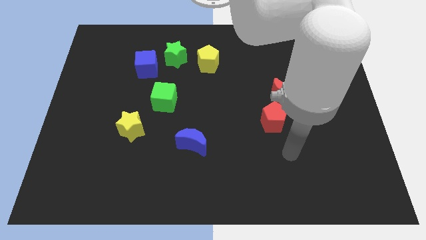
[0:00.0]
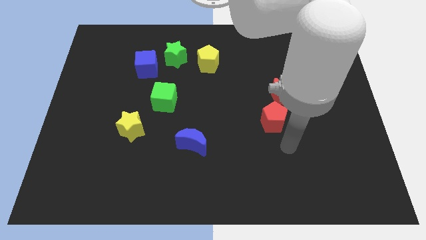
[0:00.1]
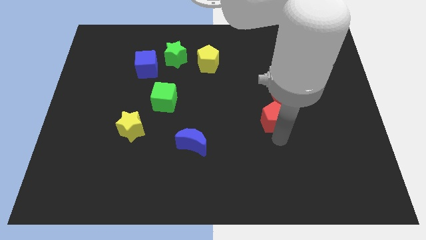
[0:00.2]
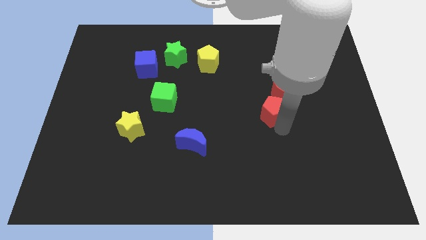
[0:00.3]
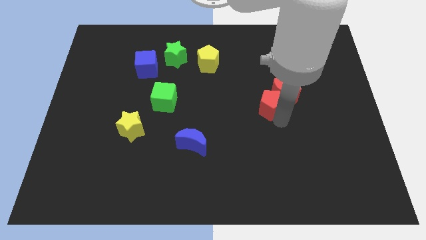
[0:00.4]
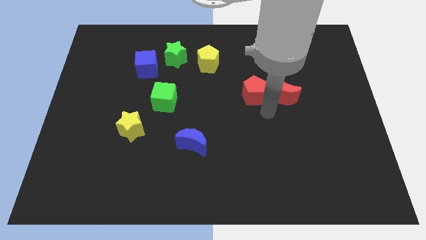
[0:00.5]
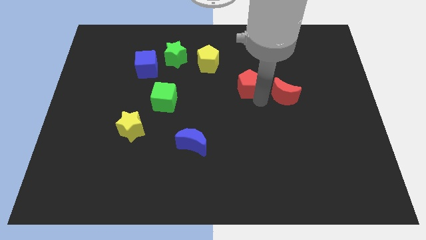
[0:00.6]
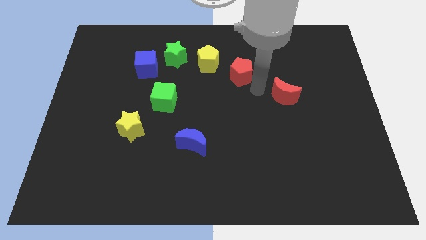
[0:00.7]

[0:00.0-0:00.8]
move the red moon away from the red pentagon

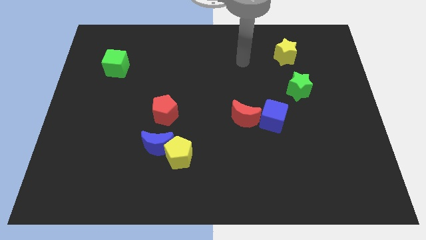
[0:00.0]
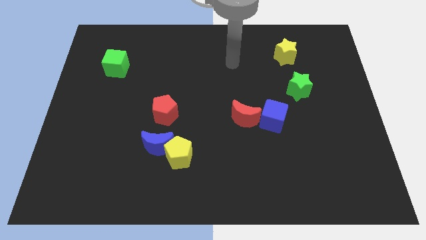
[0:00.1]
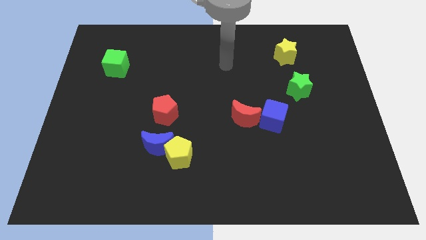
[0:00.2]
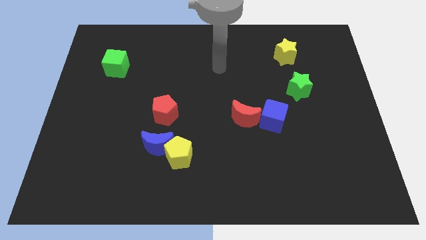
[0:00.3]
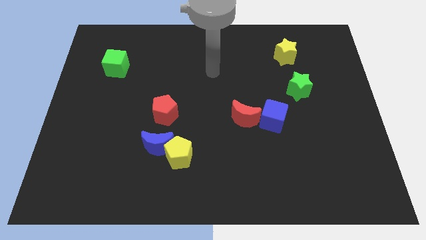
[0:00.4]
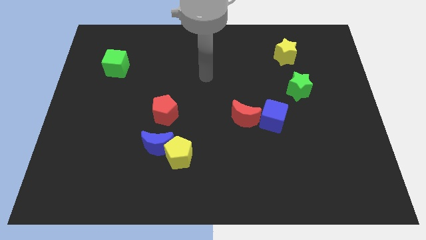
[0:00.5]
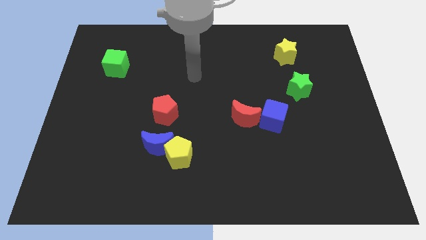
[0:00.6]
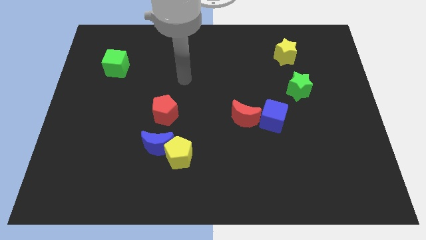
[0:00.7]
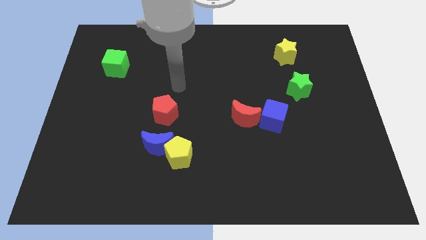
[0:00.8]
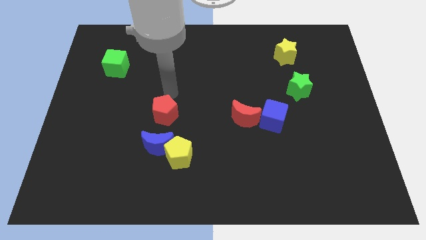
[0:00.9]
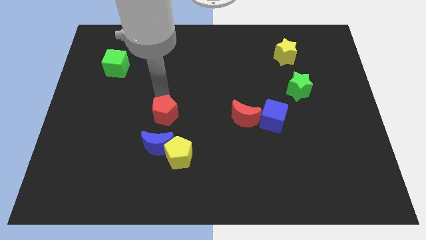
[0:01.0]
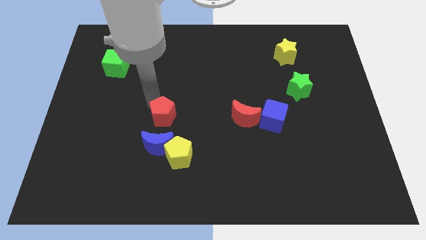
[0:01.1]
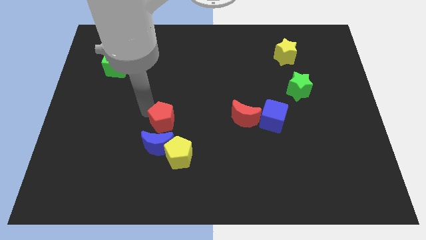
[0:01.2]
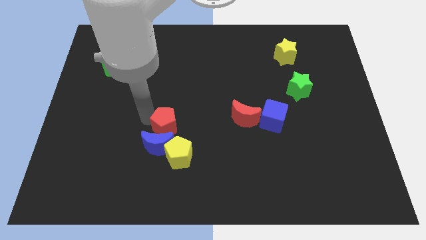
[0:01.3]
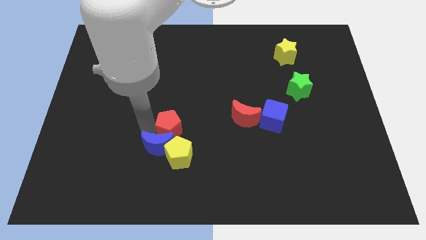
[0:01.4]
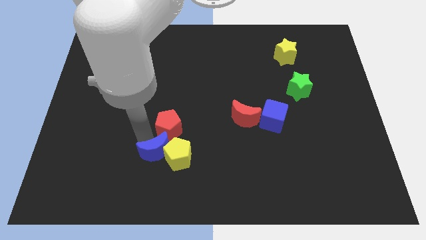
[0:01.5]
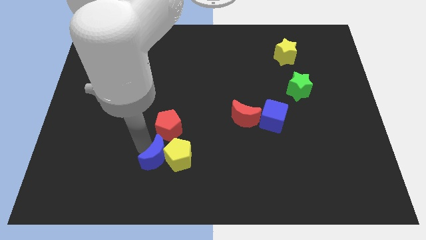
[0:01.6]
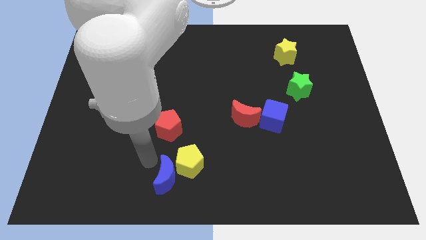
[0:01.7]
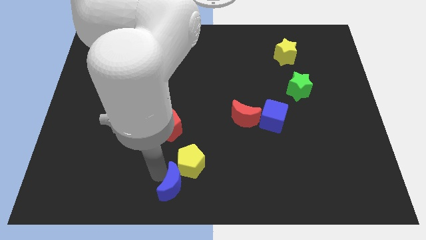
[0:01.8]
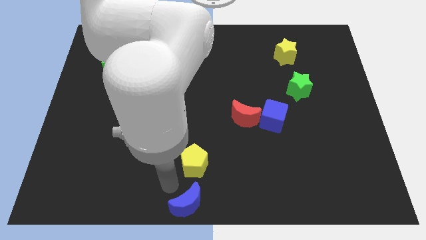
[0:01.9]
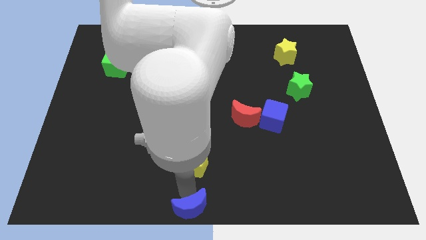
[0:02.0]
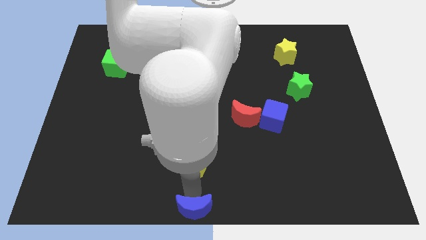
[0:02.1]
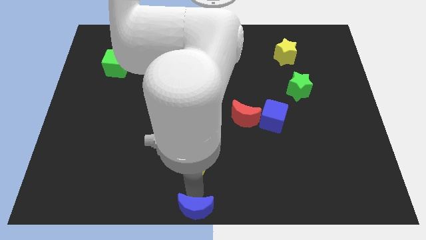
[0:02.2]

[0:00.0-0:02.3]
pull the yellow pentagon apart from the blue moon

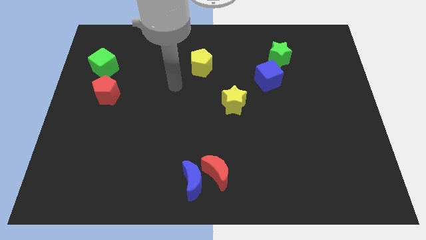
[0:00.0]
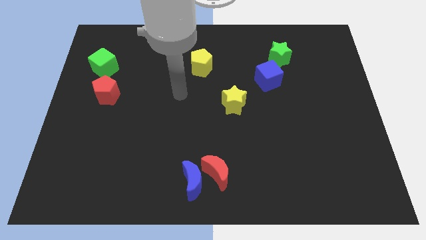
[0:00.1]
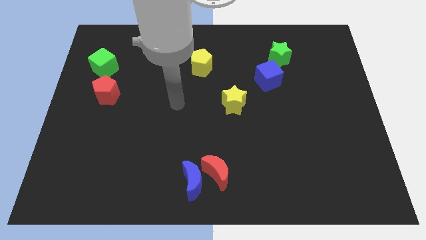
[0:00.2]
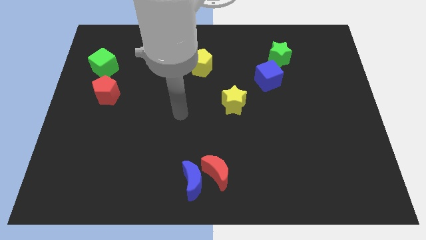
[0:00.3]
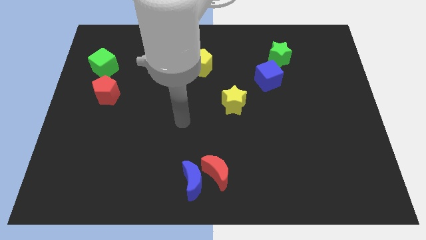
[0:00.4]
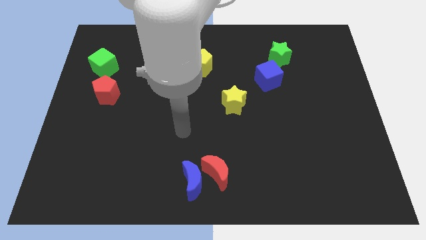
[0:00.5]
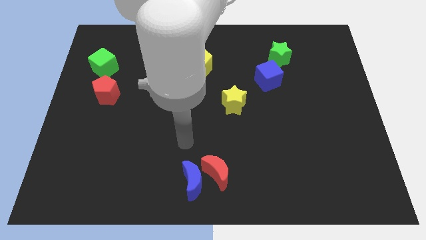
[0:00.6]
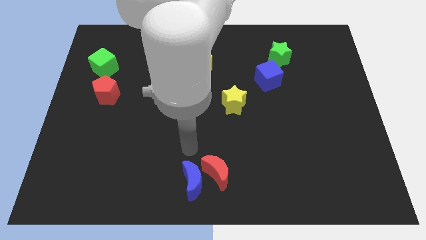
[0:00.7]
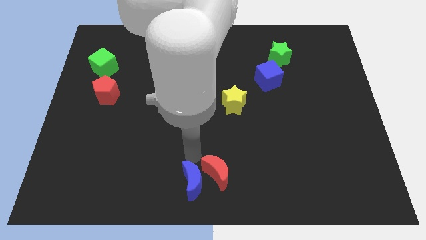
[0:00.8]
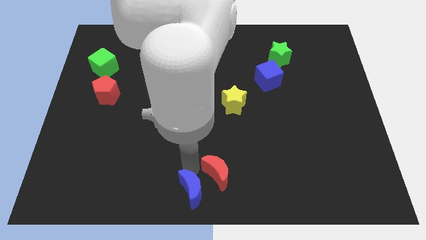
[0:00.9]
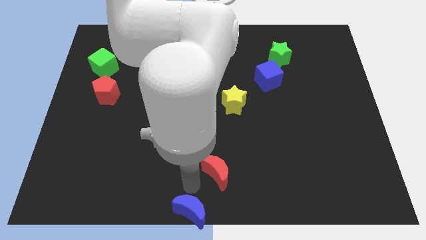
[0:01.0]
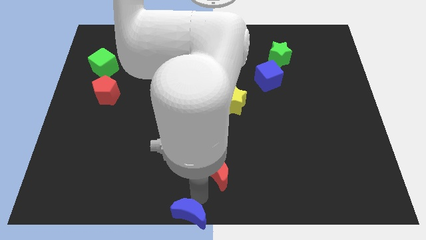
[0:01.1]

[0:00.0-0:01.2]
separate the red moon from the blue moon

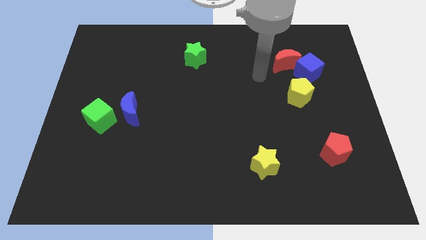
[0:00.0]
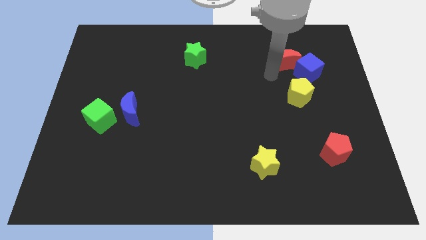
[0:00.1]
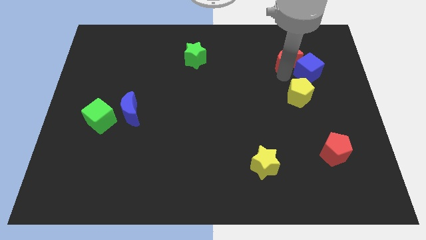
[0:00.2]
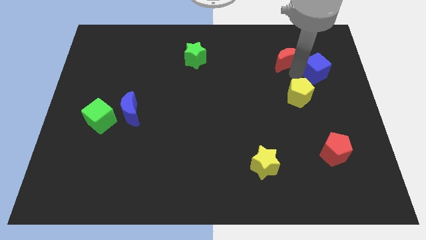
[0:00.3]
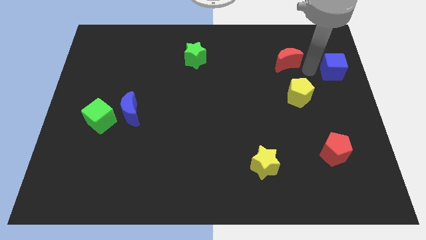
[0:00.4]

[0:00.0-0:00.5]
move the red moon away from the blue cube

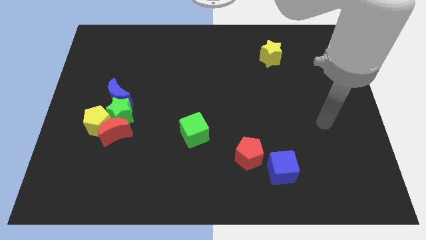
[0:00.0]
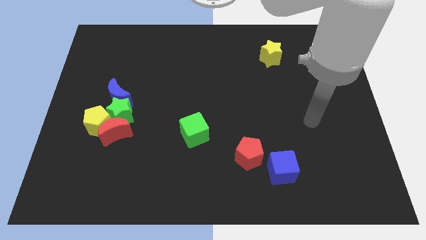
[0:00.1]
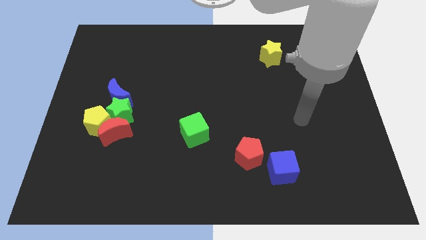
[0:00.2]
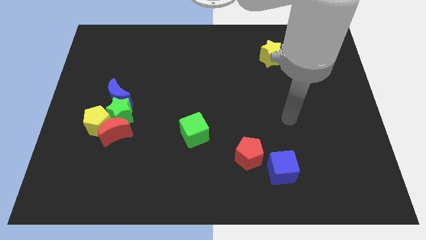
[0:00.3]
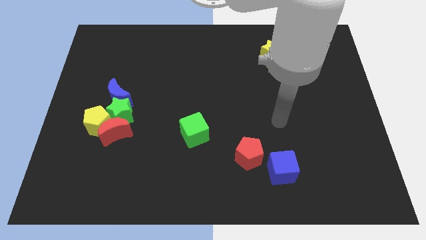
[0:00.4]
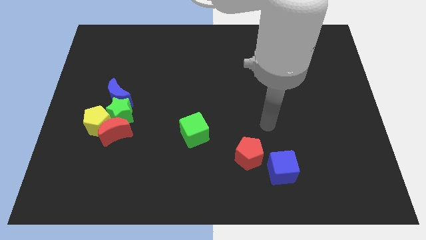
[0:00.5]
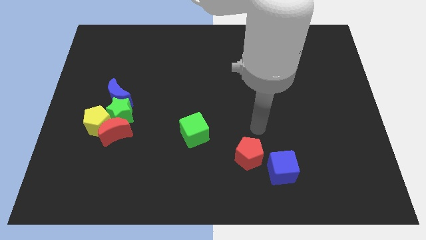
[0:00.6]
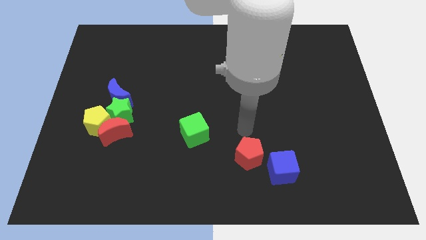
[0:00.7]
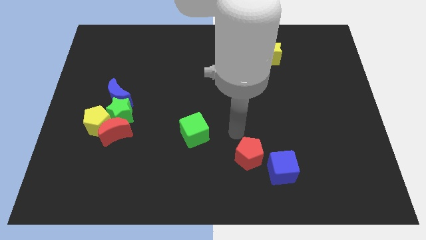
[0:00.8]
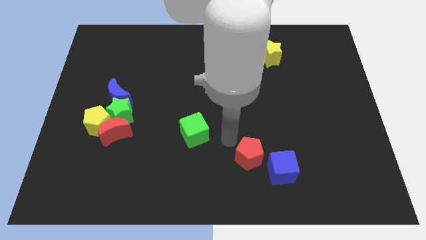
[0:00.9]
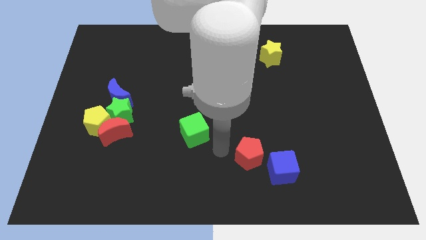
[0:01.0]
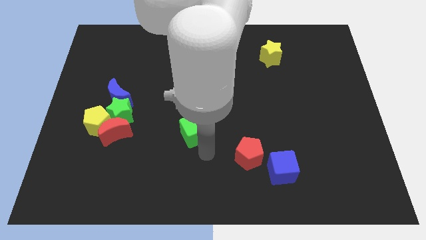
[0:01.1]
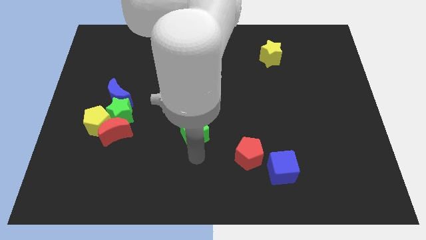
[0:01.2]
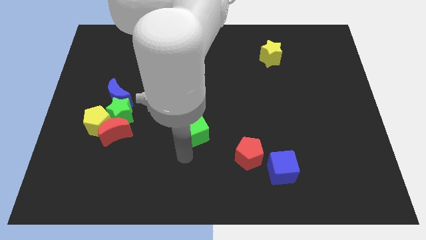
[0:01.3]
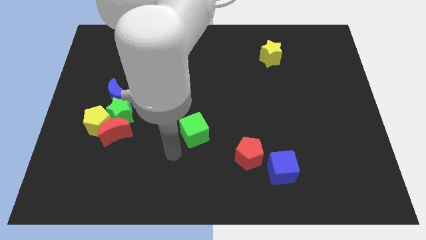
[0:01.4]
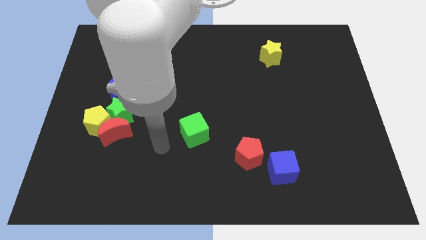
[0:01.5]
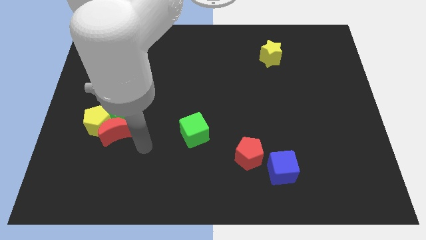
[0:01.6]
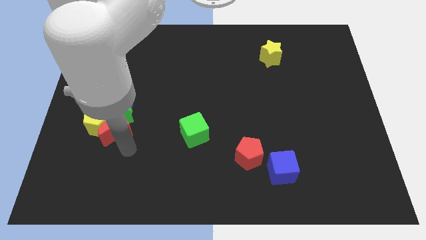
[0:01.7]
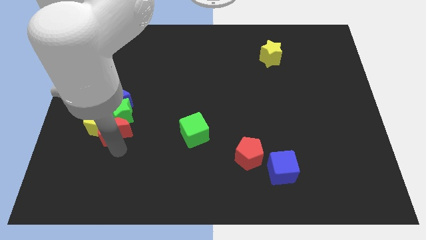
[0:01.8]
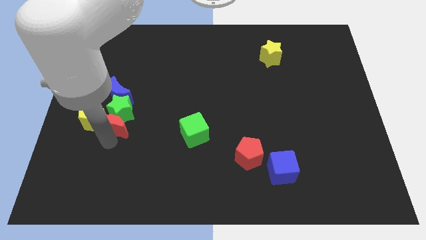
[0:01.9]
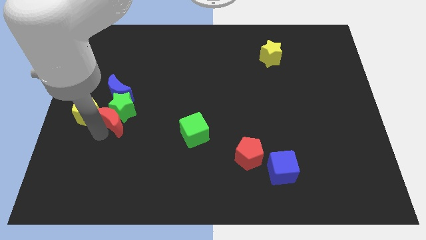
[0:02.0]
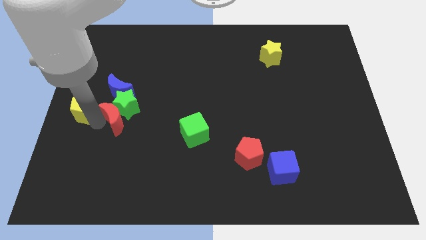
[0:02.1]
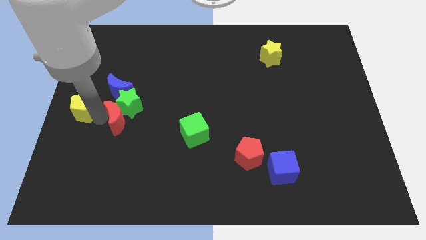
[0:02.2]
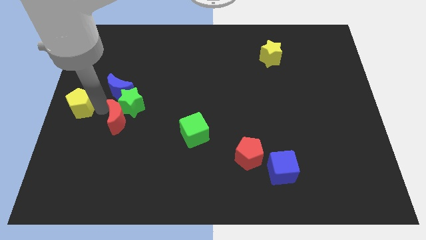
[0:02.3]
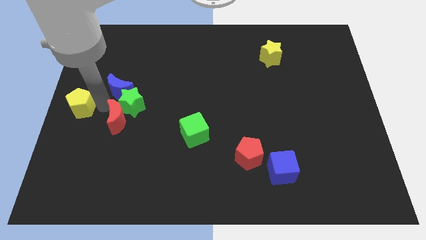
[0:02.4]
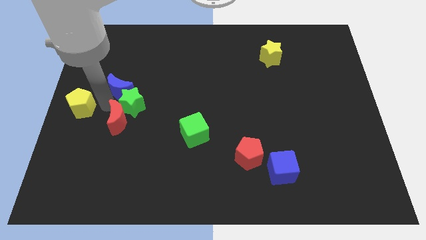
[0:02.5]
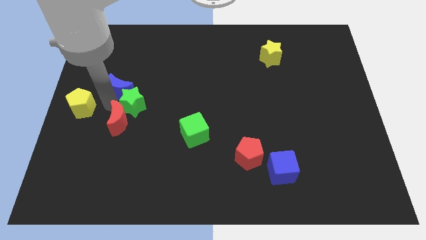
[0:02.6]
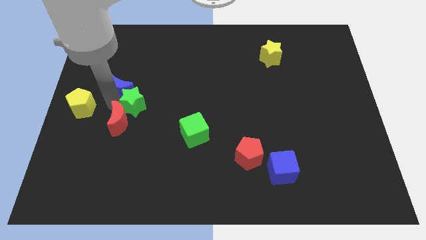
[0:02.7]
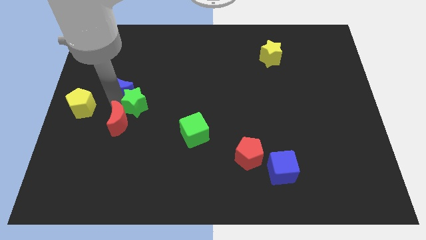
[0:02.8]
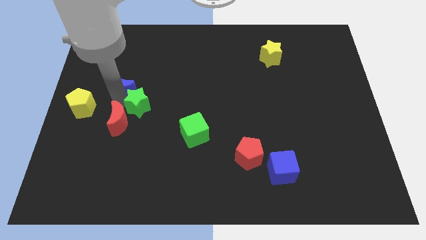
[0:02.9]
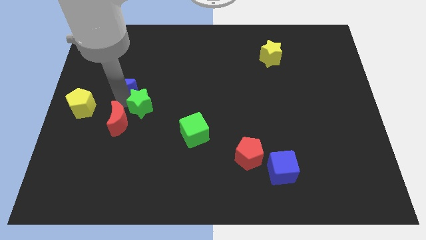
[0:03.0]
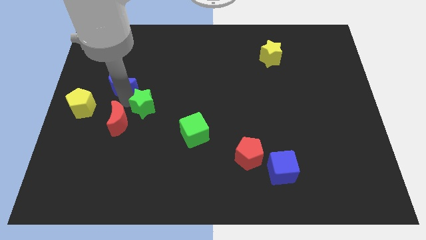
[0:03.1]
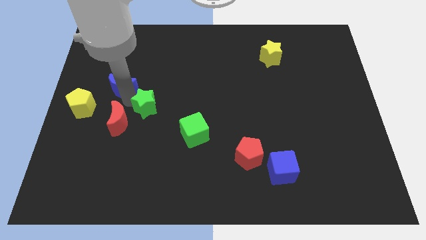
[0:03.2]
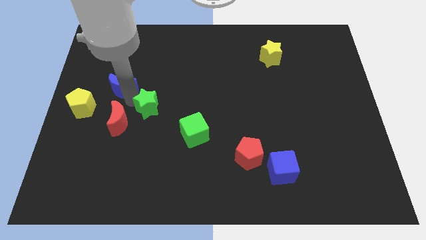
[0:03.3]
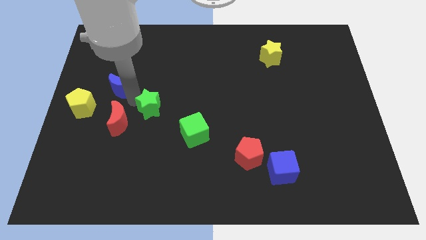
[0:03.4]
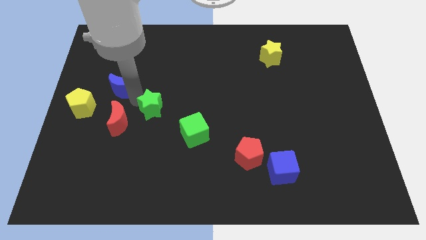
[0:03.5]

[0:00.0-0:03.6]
pull the green star apart from the group of blocks

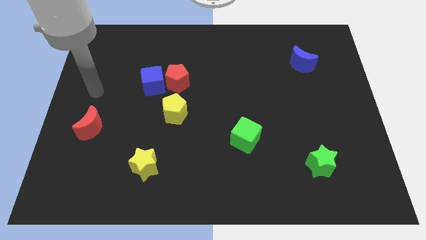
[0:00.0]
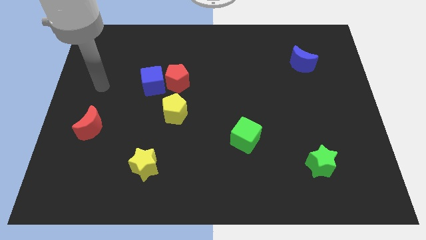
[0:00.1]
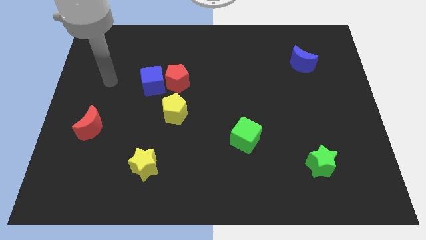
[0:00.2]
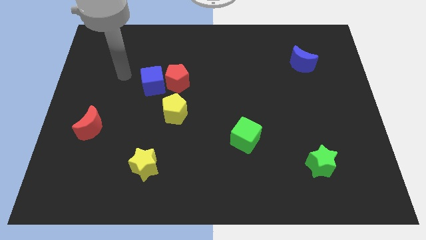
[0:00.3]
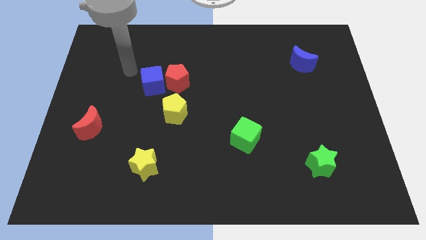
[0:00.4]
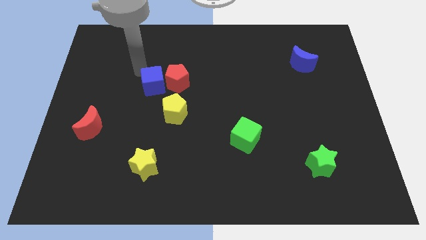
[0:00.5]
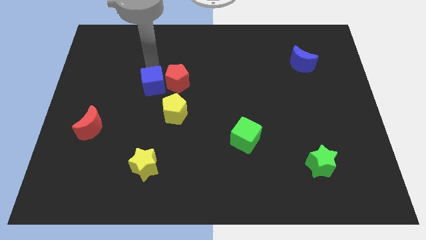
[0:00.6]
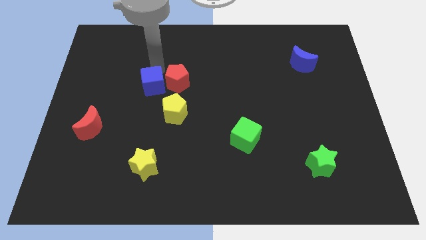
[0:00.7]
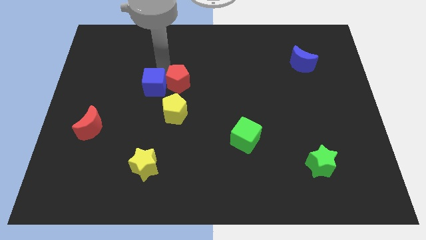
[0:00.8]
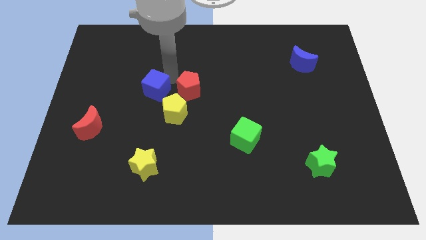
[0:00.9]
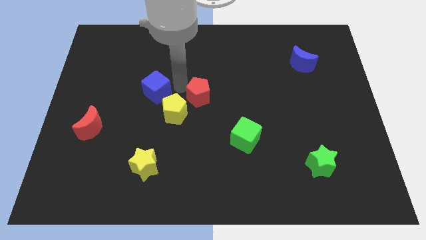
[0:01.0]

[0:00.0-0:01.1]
move the blue cube away from the red pentagon
